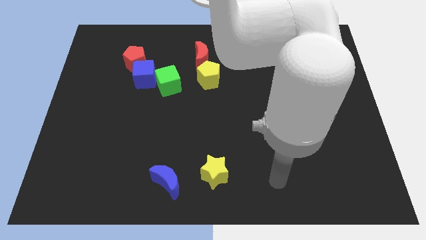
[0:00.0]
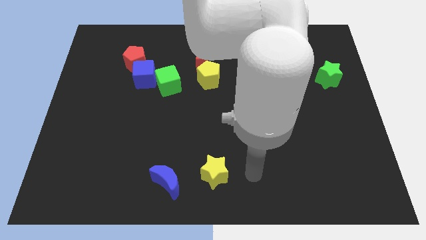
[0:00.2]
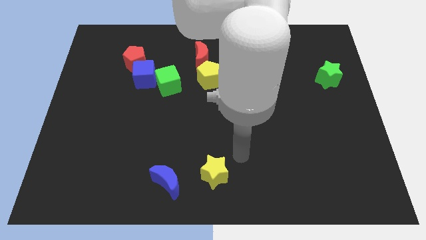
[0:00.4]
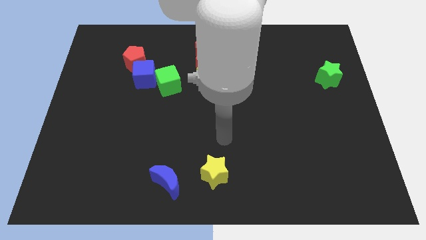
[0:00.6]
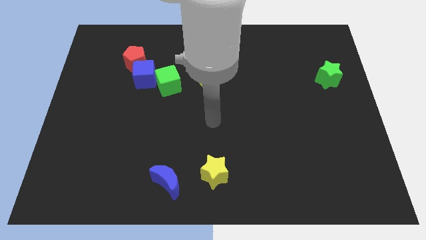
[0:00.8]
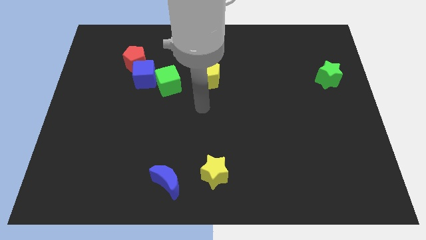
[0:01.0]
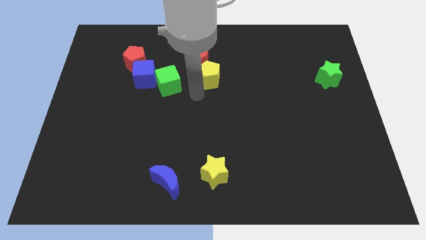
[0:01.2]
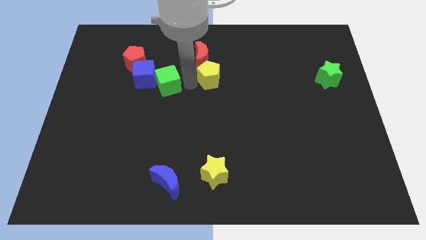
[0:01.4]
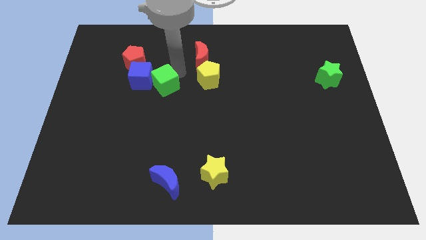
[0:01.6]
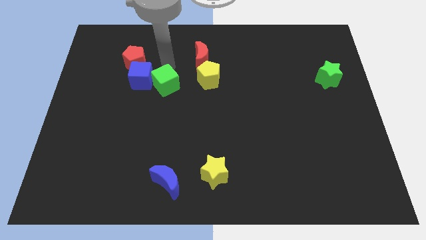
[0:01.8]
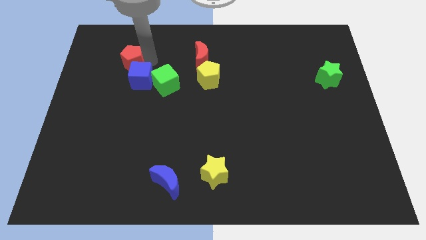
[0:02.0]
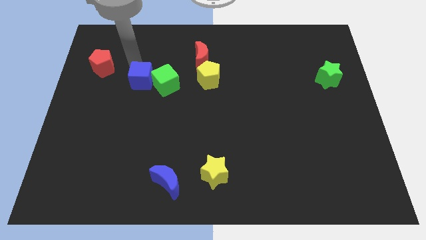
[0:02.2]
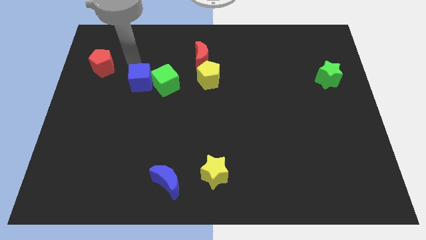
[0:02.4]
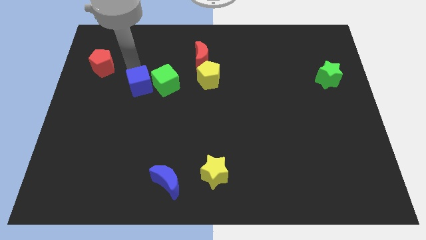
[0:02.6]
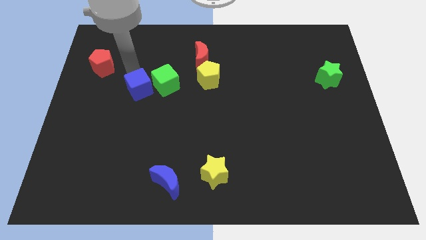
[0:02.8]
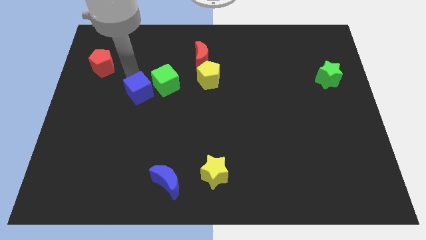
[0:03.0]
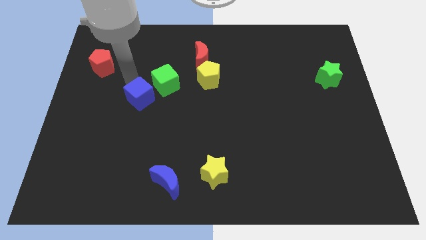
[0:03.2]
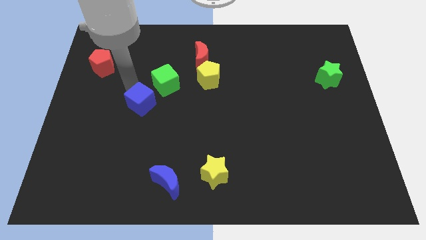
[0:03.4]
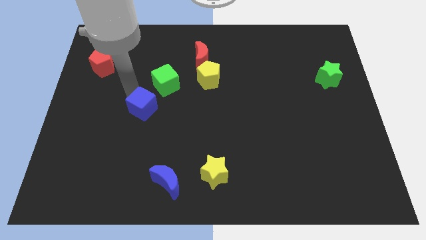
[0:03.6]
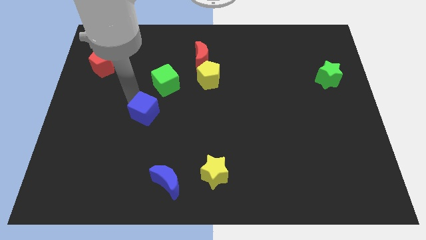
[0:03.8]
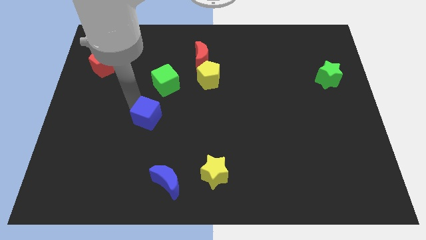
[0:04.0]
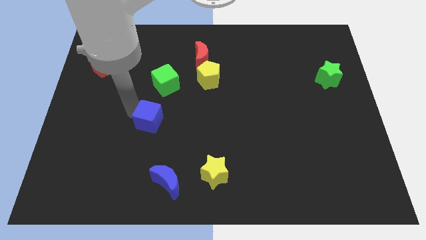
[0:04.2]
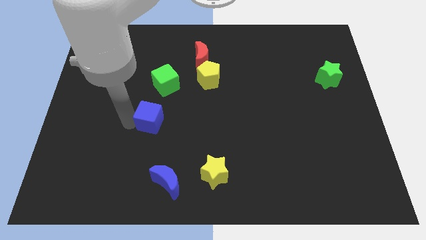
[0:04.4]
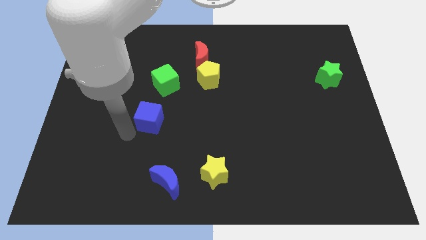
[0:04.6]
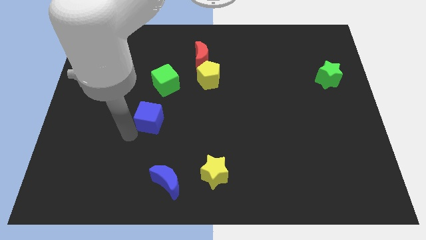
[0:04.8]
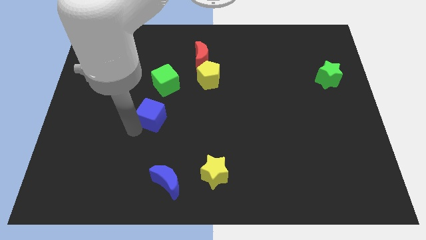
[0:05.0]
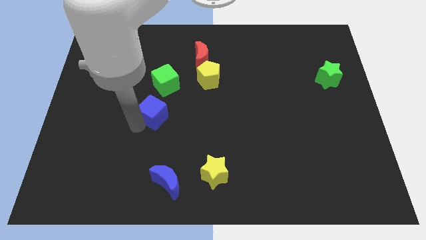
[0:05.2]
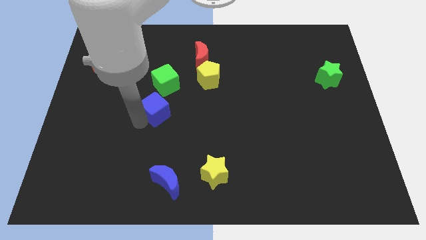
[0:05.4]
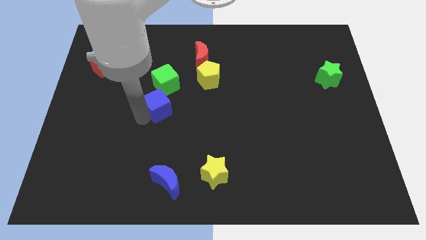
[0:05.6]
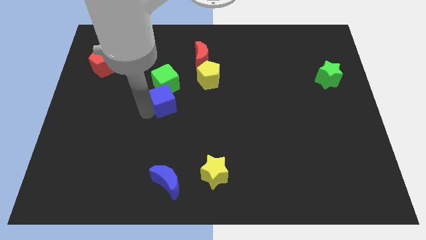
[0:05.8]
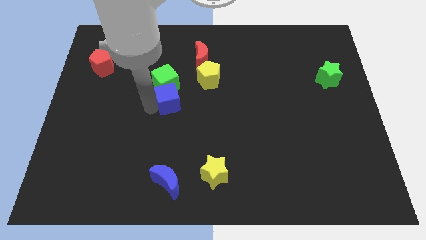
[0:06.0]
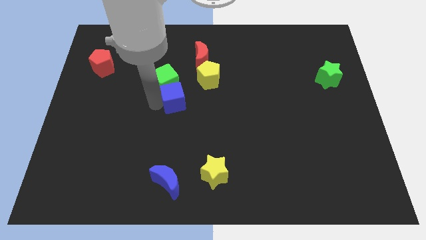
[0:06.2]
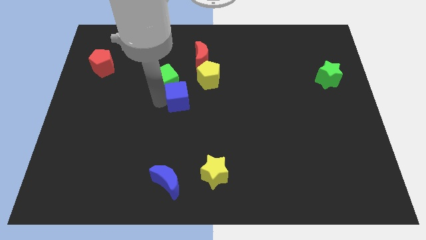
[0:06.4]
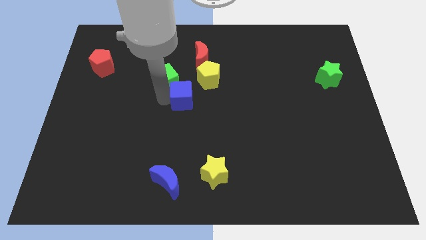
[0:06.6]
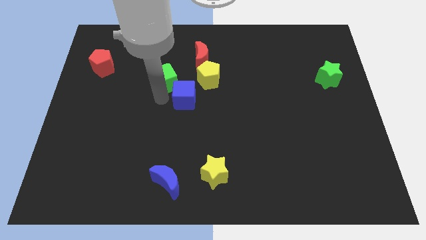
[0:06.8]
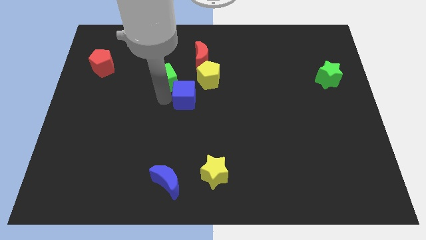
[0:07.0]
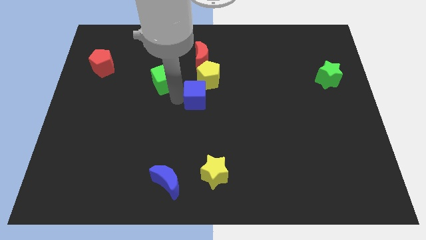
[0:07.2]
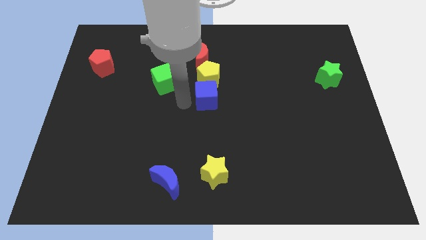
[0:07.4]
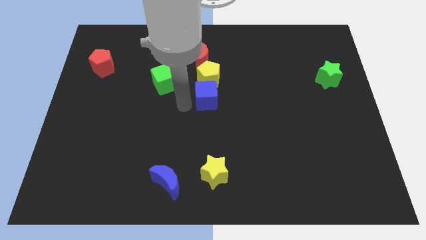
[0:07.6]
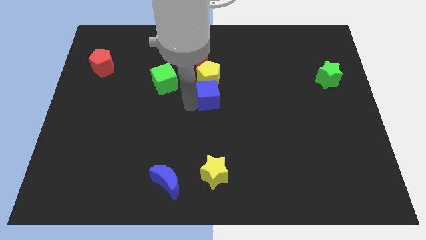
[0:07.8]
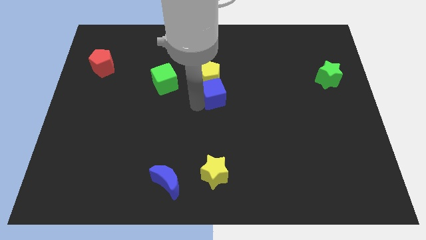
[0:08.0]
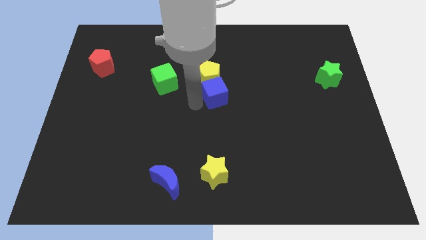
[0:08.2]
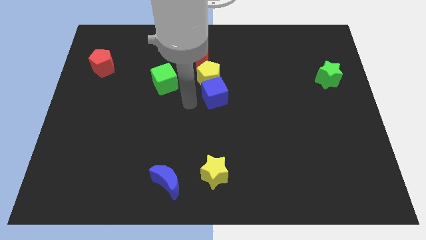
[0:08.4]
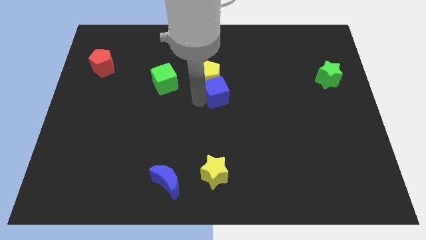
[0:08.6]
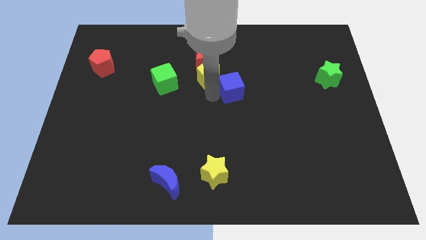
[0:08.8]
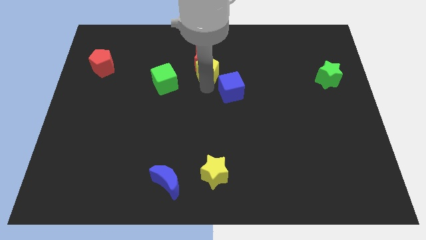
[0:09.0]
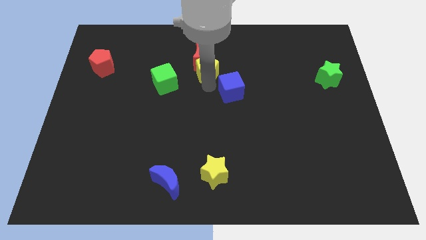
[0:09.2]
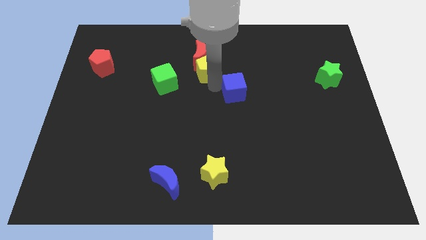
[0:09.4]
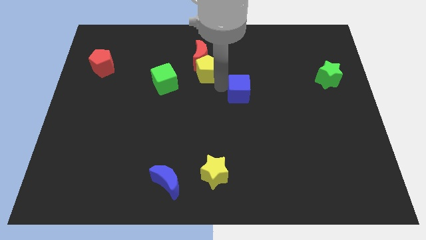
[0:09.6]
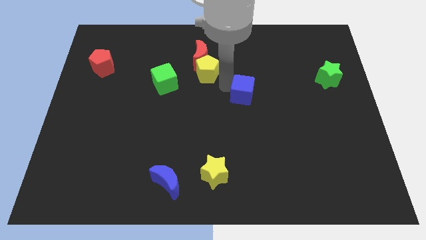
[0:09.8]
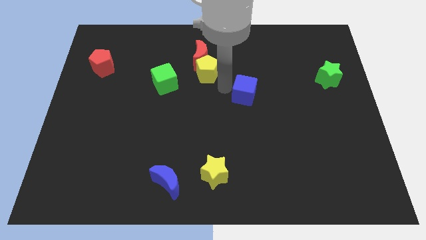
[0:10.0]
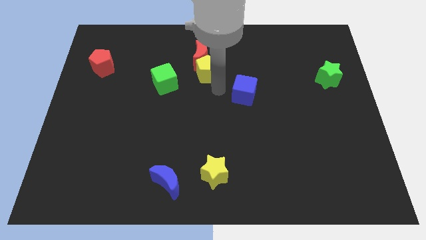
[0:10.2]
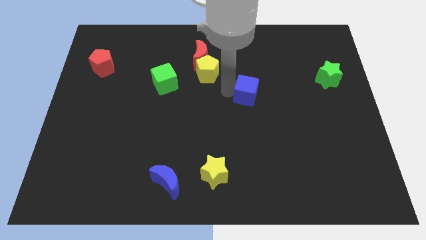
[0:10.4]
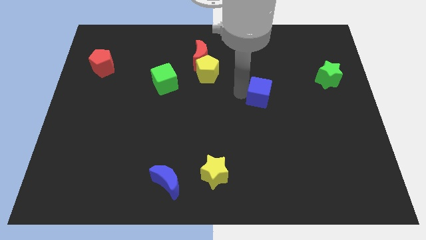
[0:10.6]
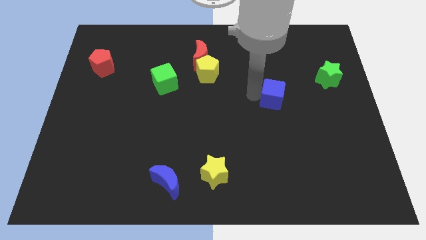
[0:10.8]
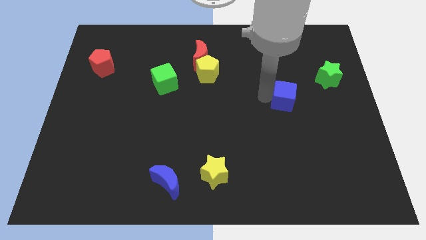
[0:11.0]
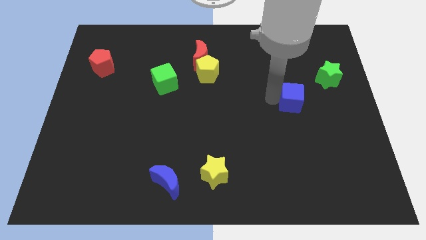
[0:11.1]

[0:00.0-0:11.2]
put the blue cube diagonally down and to the left of the green star
